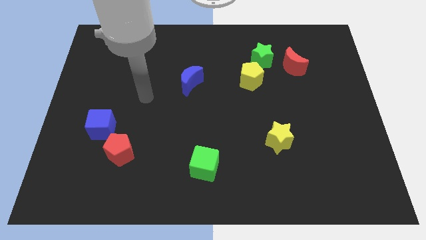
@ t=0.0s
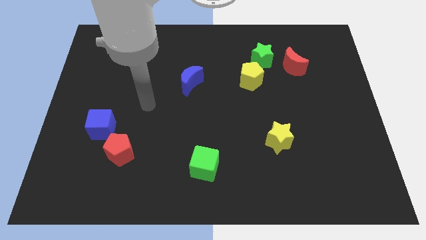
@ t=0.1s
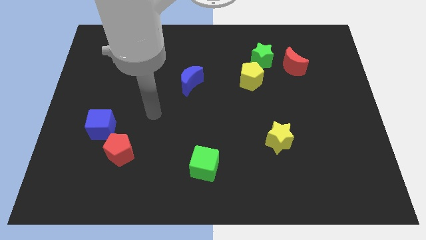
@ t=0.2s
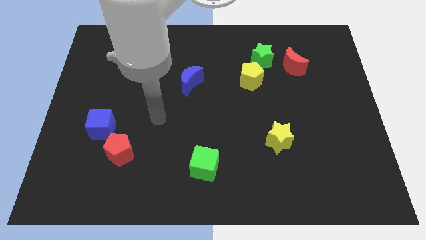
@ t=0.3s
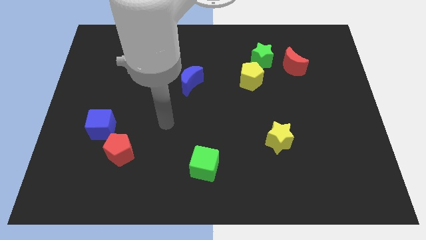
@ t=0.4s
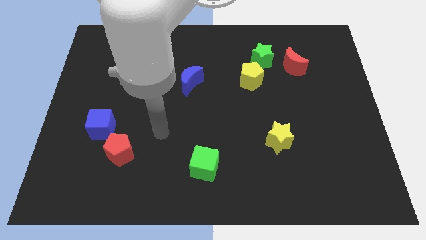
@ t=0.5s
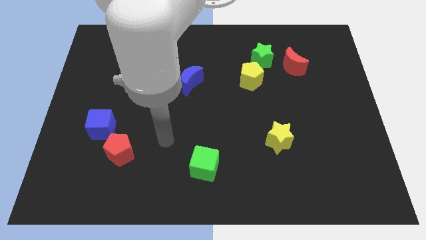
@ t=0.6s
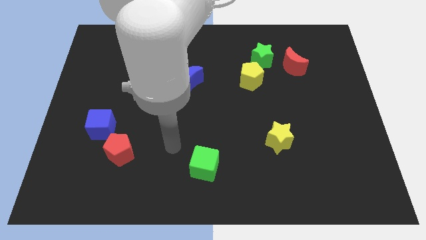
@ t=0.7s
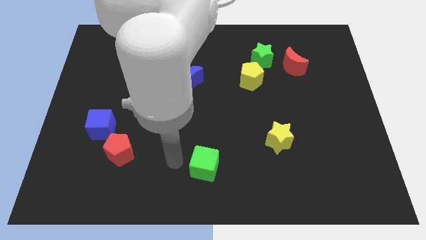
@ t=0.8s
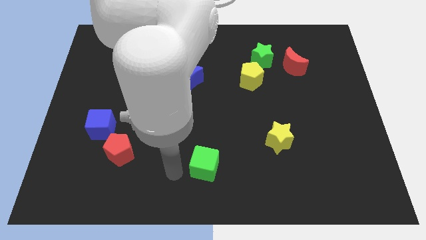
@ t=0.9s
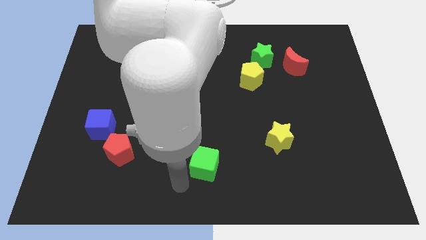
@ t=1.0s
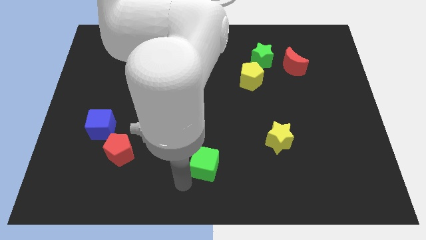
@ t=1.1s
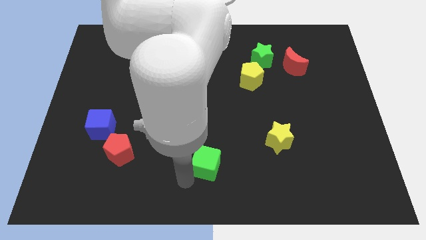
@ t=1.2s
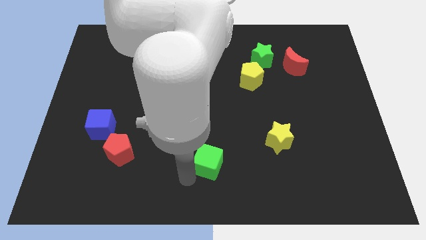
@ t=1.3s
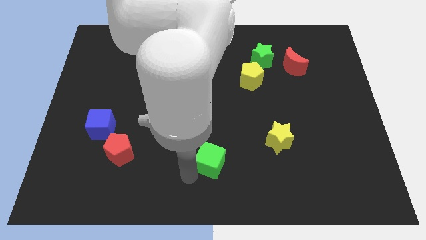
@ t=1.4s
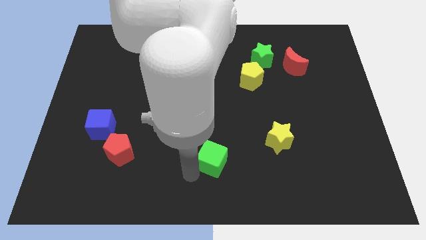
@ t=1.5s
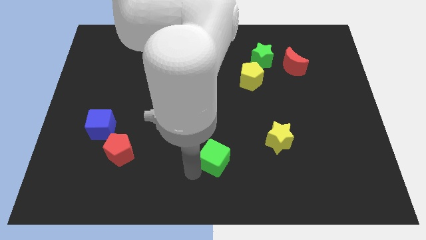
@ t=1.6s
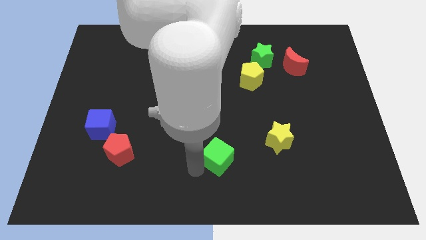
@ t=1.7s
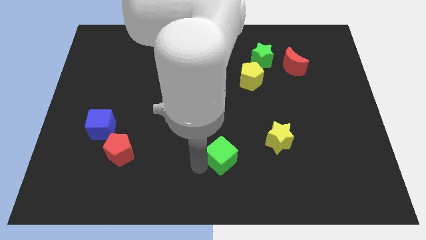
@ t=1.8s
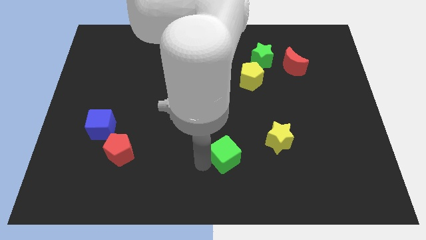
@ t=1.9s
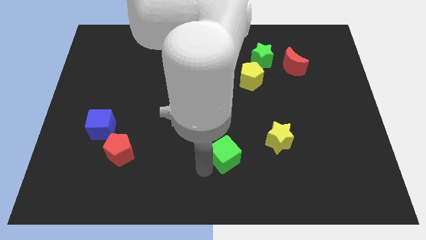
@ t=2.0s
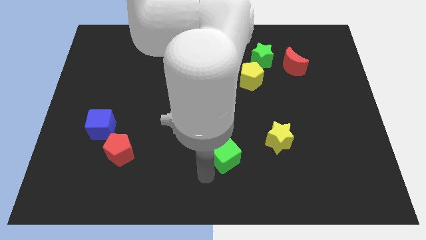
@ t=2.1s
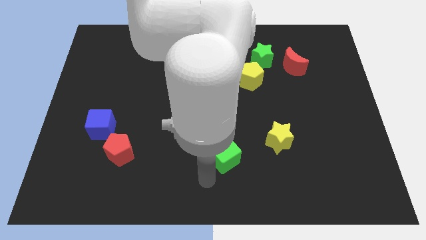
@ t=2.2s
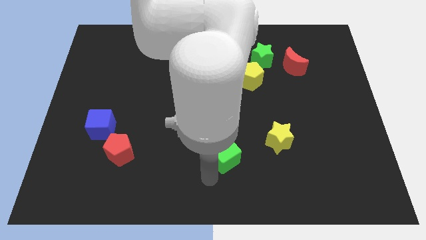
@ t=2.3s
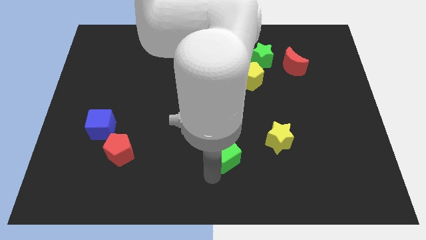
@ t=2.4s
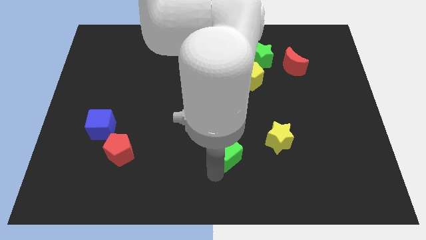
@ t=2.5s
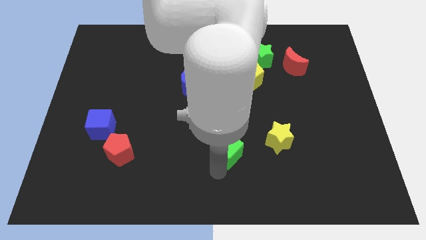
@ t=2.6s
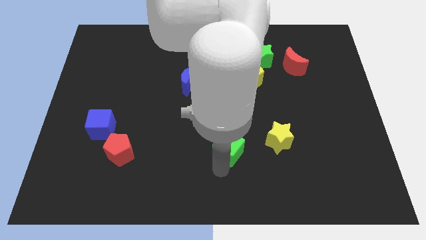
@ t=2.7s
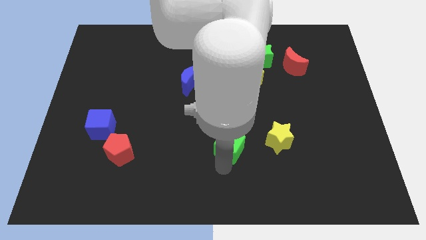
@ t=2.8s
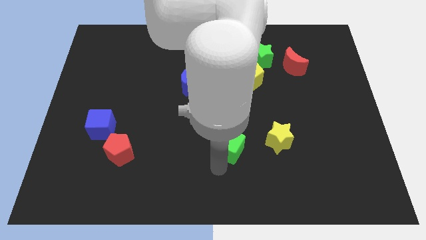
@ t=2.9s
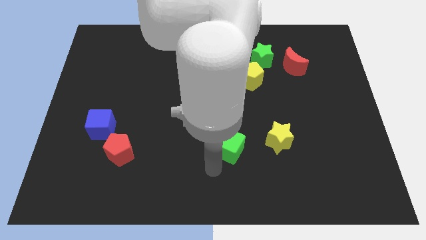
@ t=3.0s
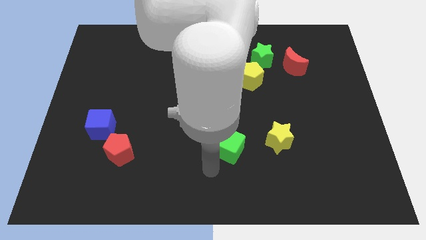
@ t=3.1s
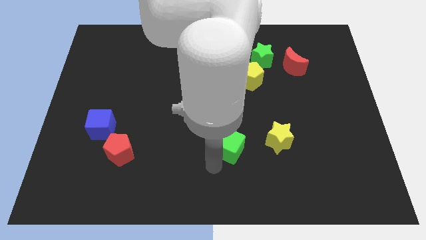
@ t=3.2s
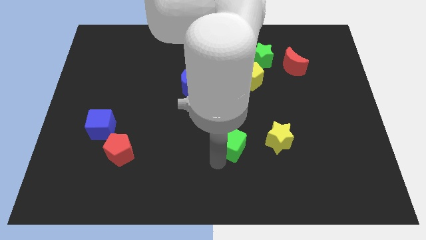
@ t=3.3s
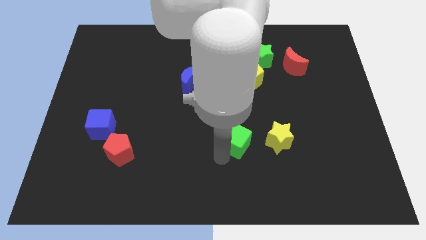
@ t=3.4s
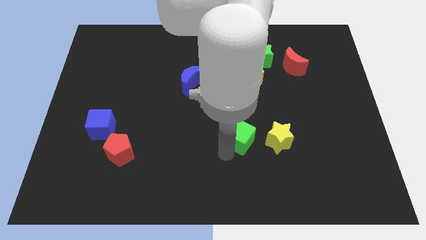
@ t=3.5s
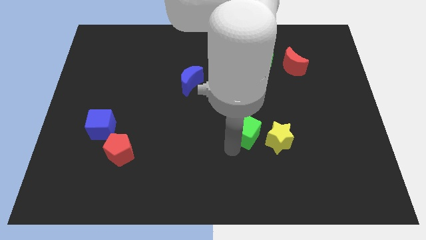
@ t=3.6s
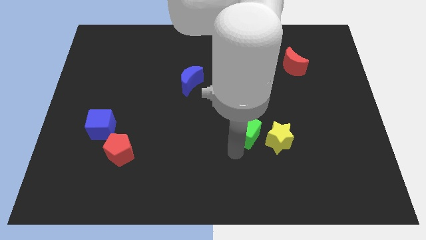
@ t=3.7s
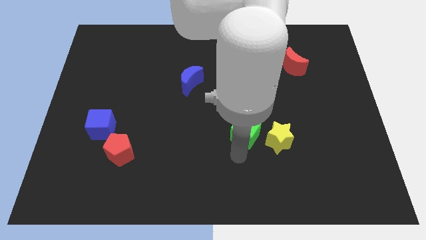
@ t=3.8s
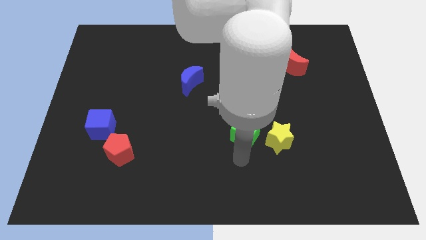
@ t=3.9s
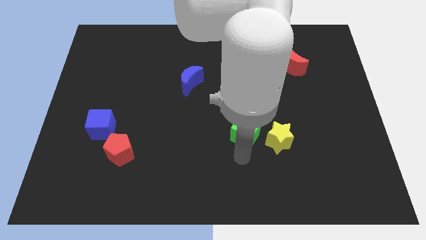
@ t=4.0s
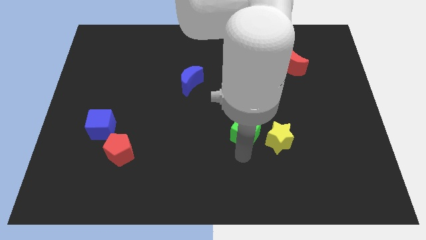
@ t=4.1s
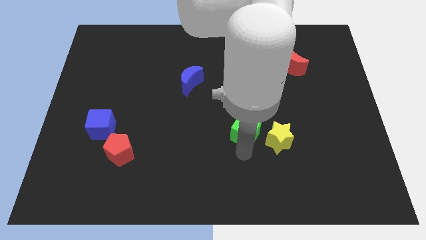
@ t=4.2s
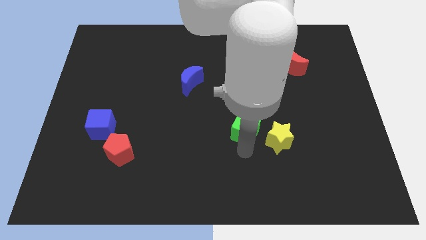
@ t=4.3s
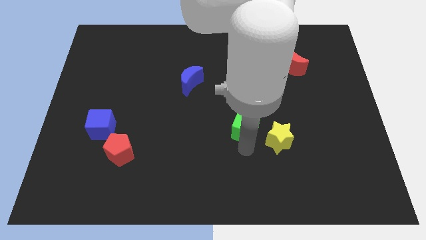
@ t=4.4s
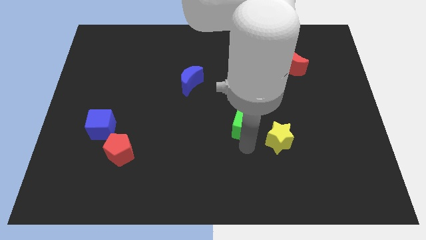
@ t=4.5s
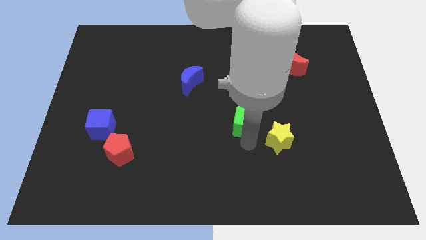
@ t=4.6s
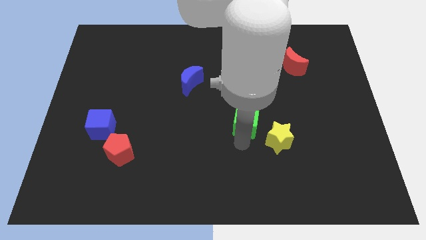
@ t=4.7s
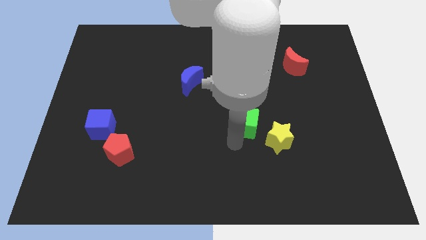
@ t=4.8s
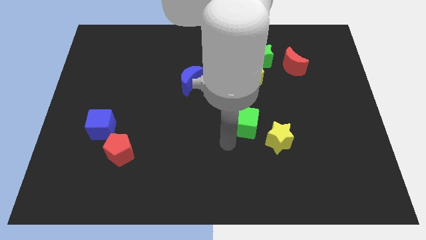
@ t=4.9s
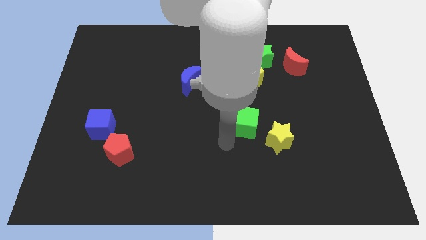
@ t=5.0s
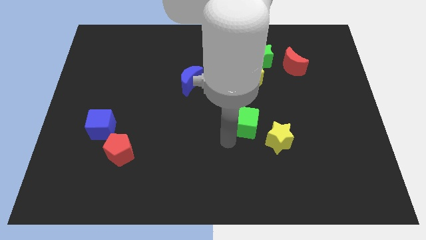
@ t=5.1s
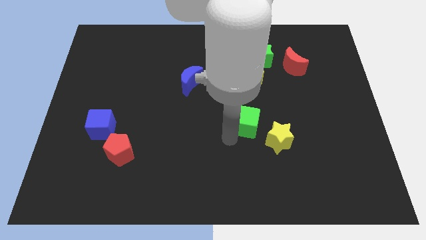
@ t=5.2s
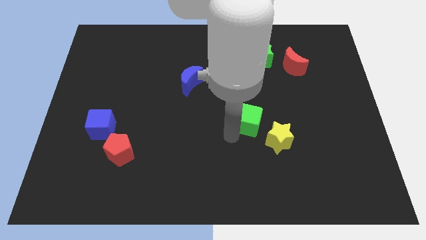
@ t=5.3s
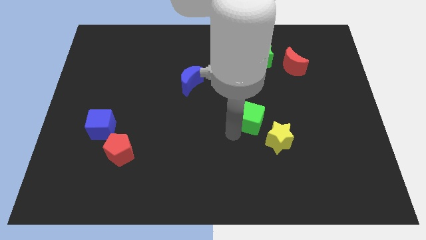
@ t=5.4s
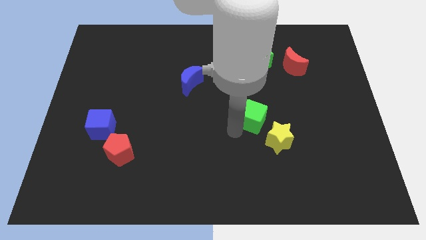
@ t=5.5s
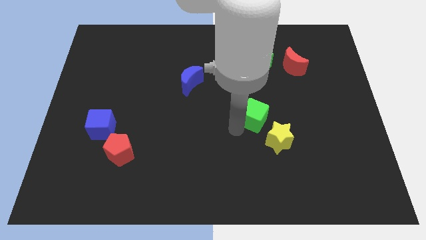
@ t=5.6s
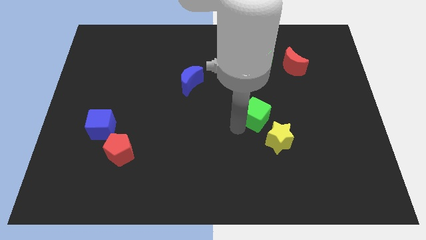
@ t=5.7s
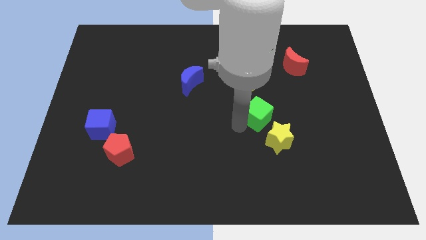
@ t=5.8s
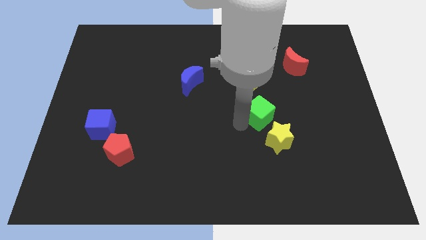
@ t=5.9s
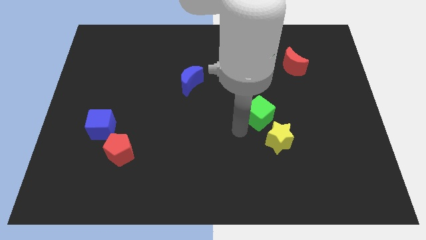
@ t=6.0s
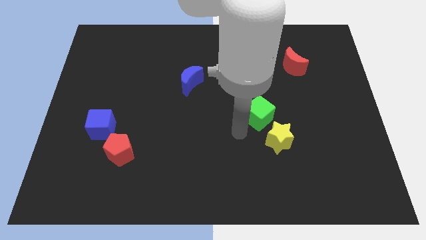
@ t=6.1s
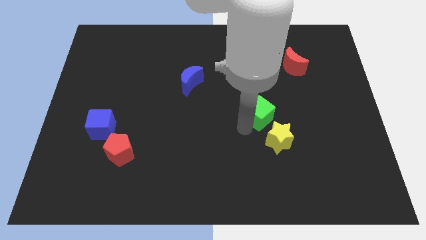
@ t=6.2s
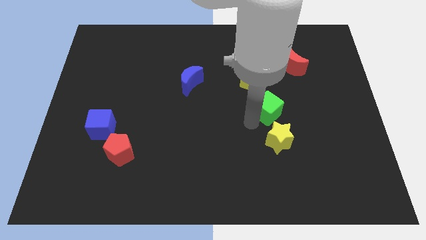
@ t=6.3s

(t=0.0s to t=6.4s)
push the green cube up and right

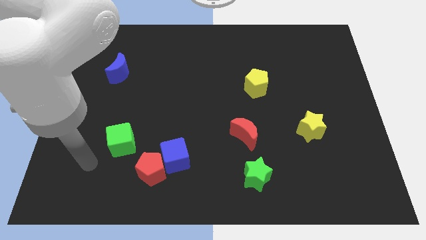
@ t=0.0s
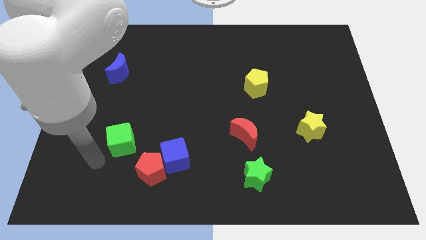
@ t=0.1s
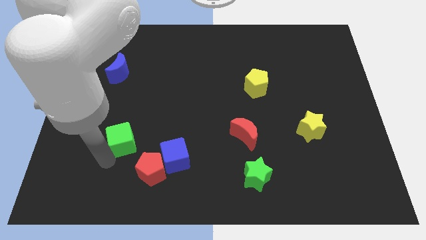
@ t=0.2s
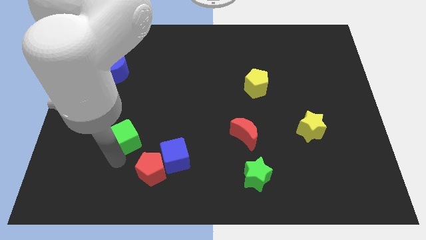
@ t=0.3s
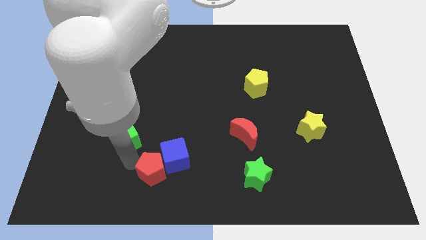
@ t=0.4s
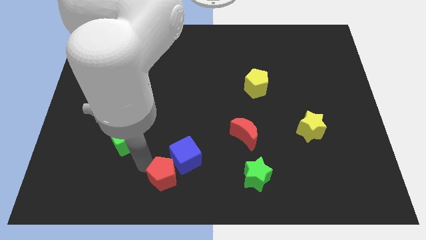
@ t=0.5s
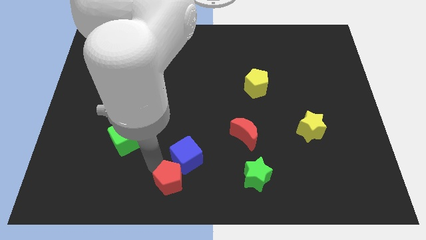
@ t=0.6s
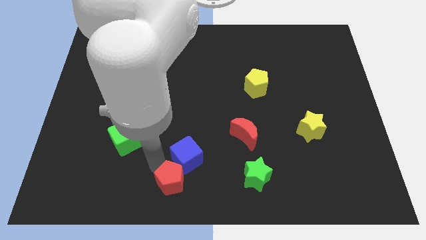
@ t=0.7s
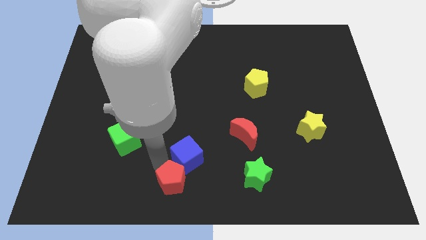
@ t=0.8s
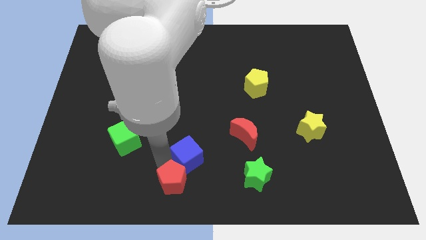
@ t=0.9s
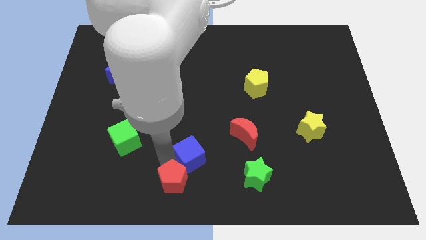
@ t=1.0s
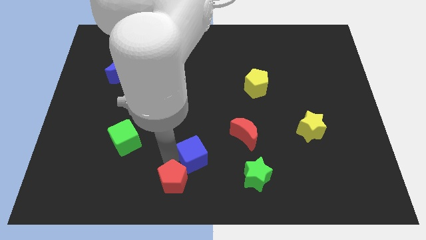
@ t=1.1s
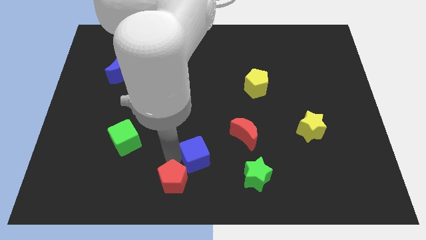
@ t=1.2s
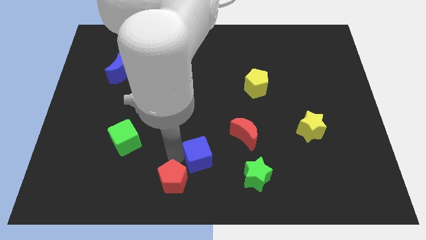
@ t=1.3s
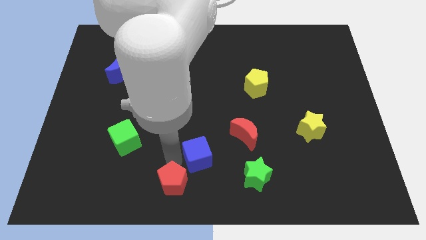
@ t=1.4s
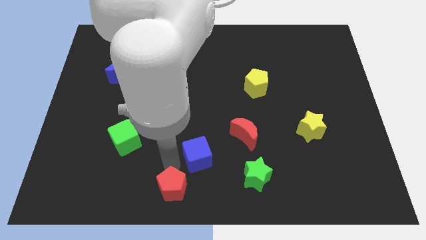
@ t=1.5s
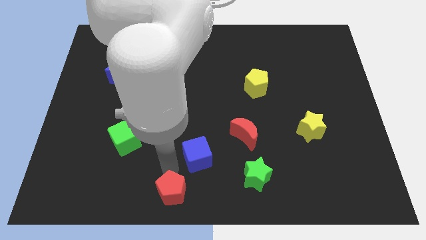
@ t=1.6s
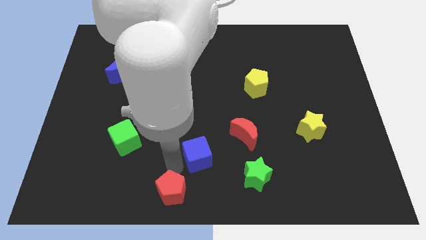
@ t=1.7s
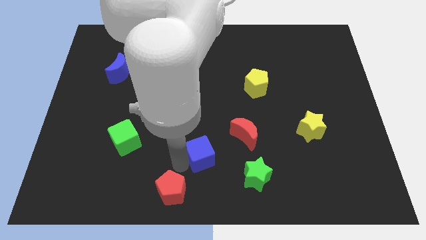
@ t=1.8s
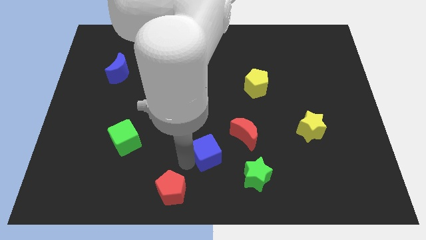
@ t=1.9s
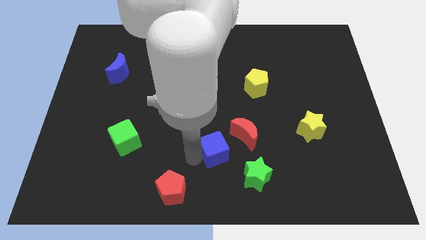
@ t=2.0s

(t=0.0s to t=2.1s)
push the blue cube somewhat right
